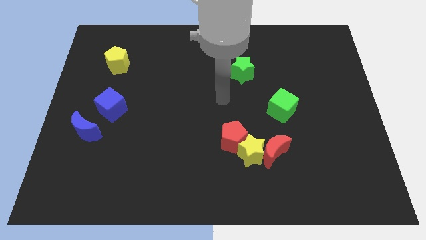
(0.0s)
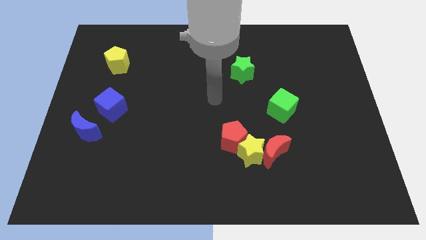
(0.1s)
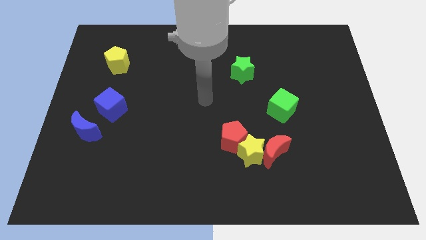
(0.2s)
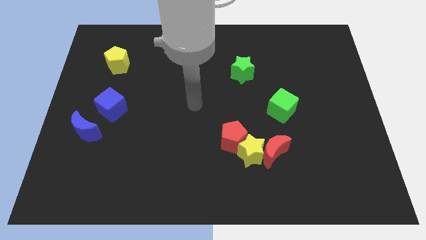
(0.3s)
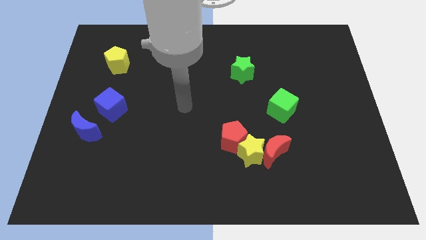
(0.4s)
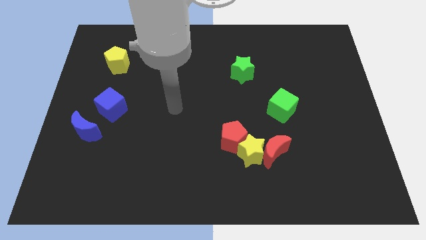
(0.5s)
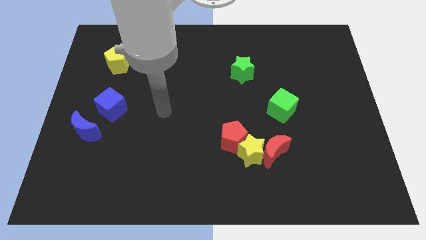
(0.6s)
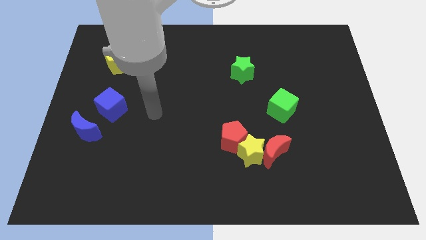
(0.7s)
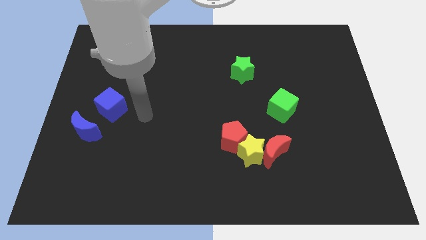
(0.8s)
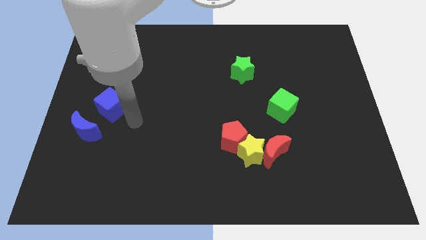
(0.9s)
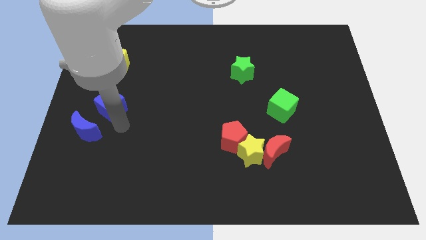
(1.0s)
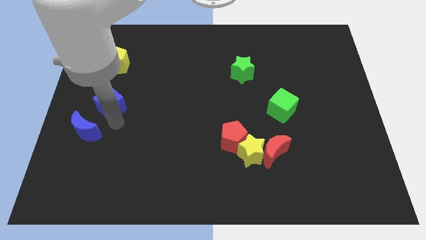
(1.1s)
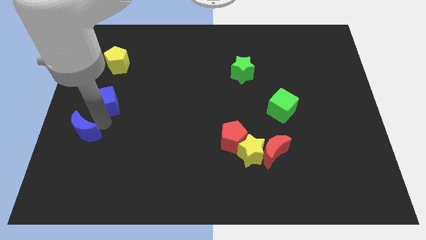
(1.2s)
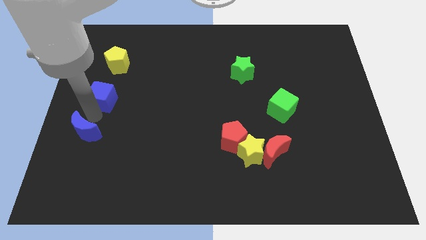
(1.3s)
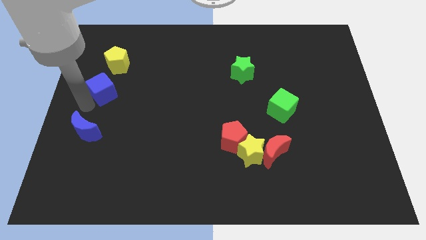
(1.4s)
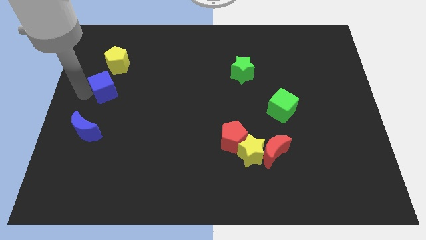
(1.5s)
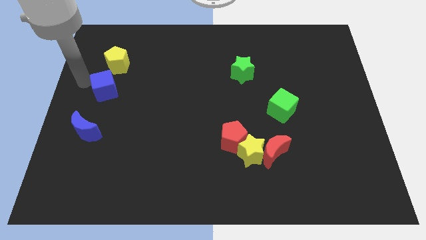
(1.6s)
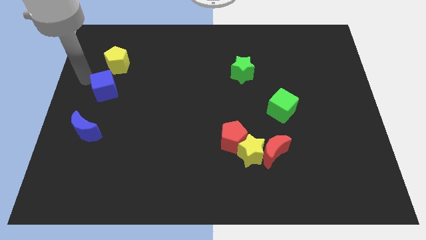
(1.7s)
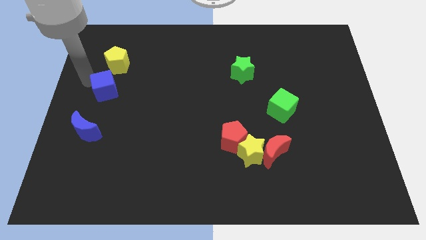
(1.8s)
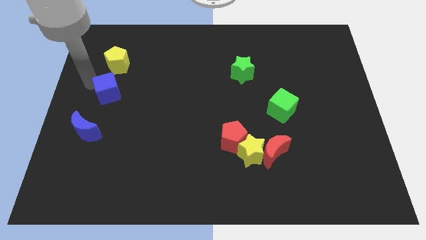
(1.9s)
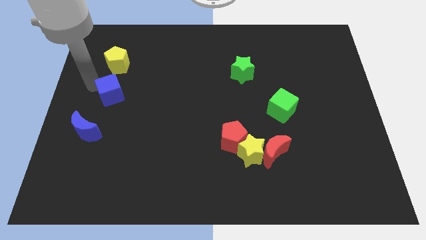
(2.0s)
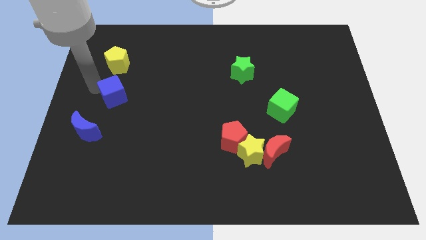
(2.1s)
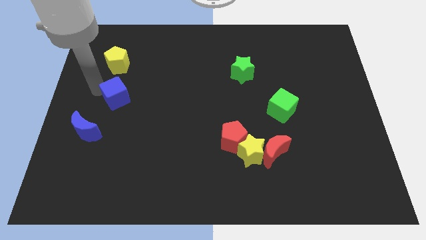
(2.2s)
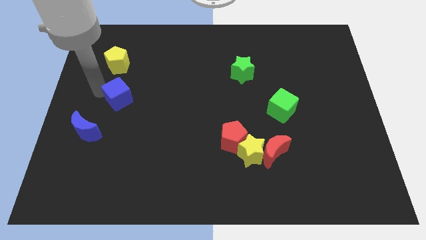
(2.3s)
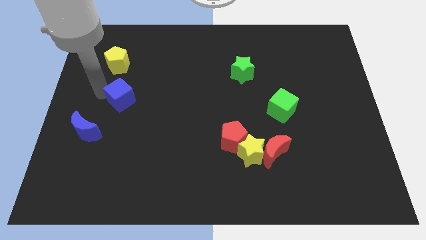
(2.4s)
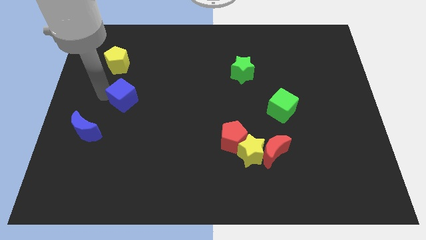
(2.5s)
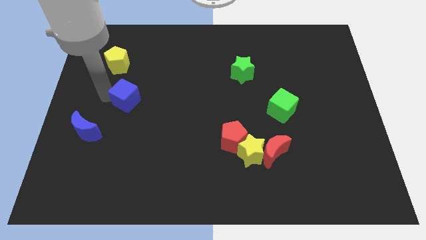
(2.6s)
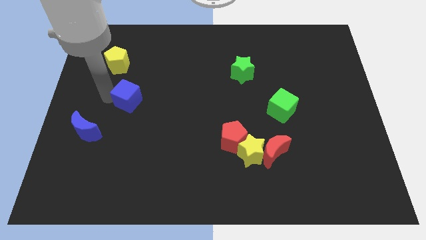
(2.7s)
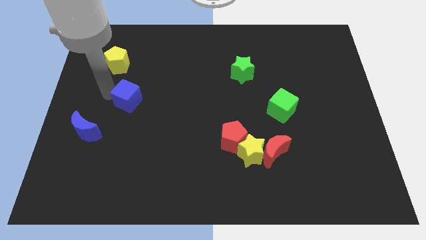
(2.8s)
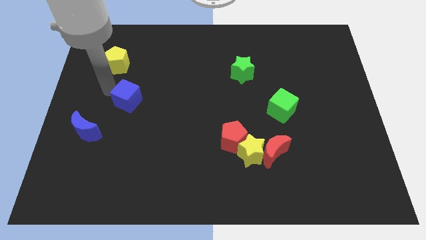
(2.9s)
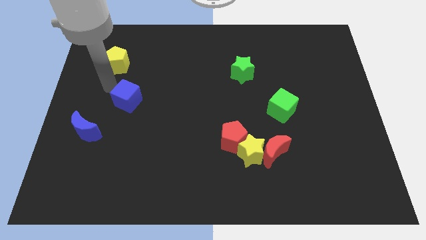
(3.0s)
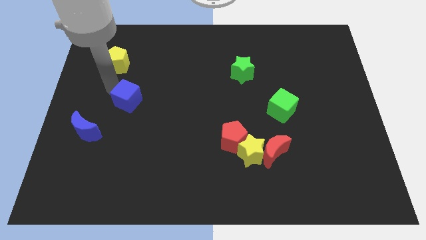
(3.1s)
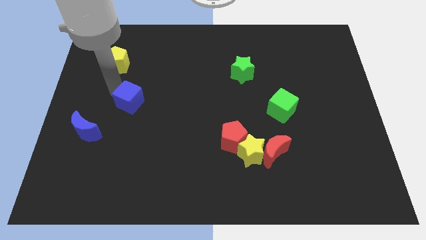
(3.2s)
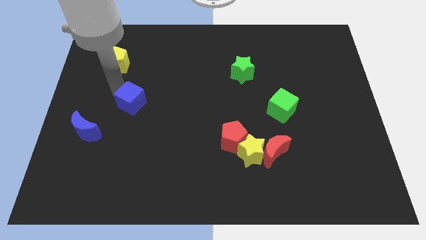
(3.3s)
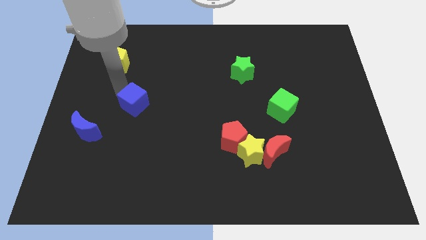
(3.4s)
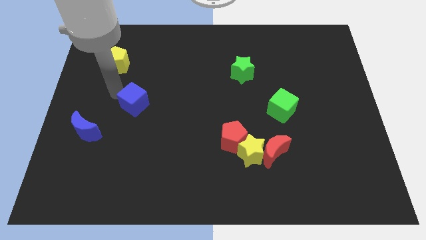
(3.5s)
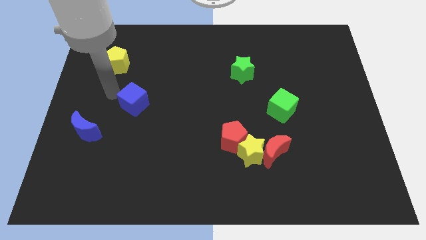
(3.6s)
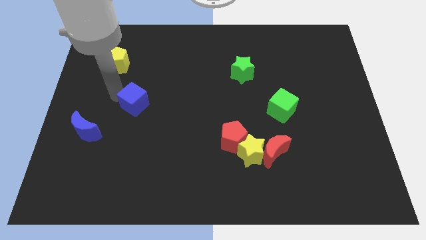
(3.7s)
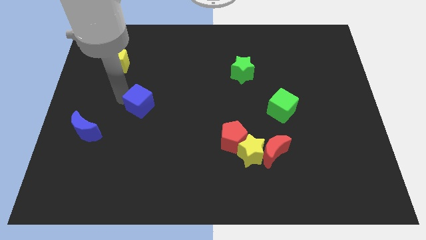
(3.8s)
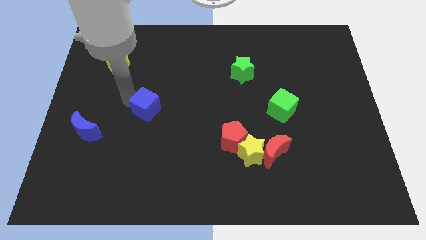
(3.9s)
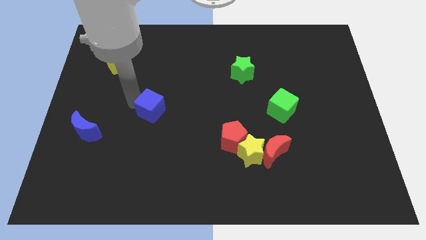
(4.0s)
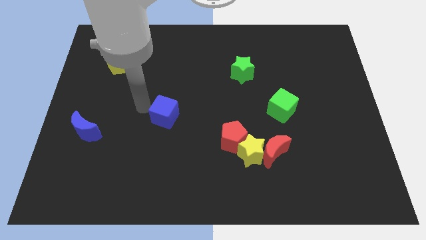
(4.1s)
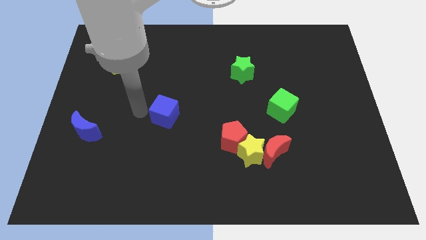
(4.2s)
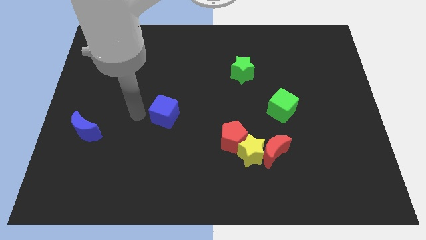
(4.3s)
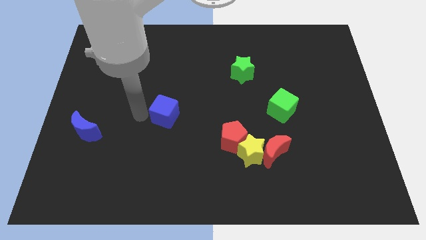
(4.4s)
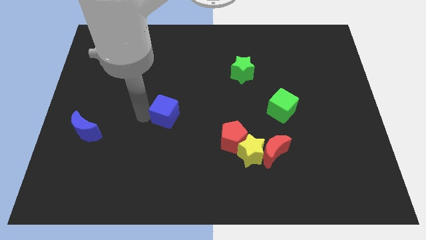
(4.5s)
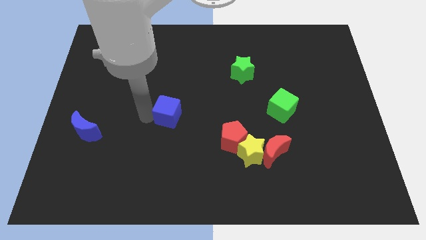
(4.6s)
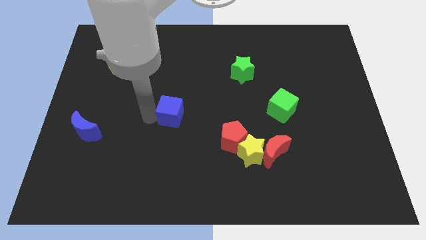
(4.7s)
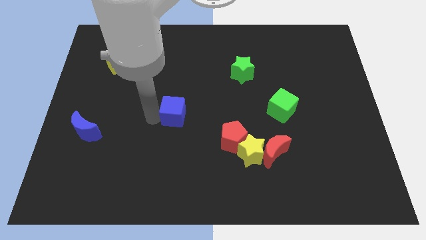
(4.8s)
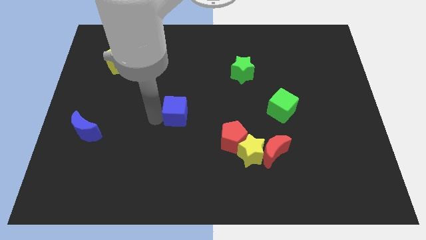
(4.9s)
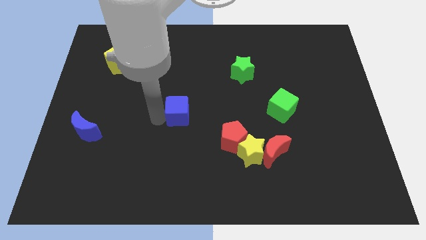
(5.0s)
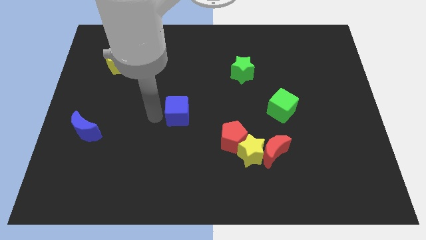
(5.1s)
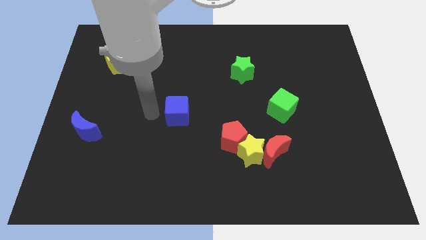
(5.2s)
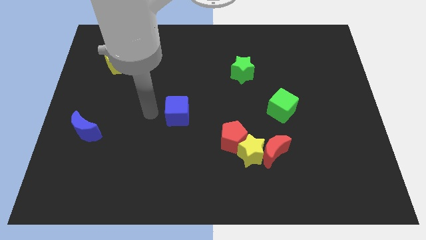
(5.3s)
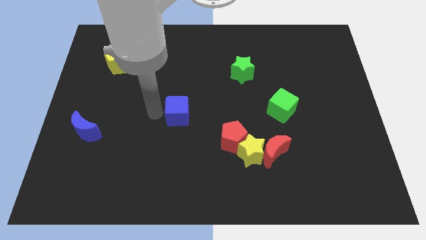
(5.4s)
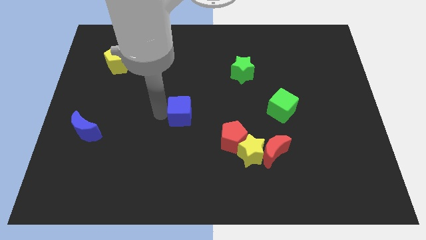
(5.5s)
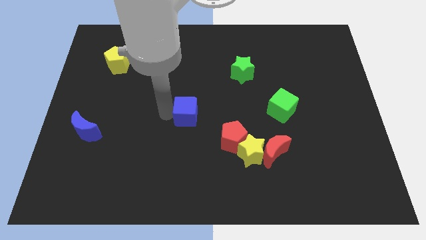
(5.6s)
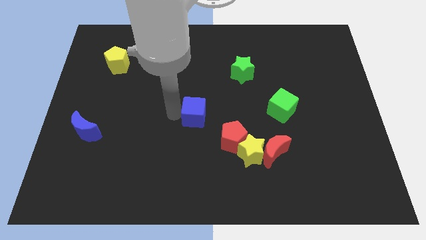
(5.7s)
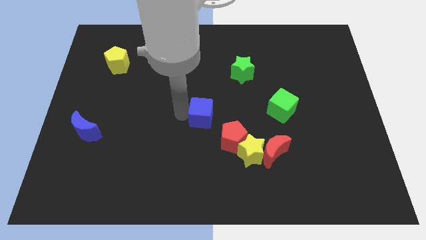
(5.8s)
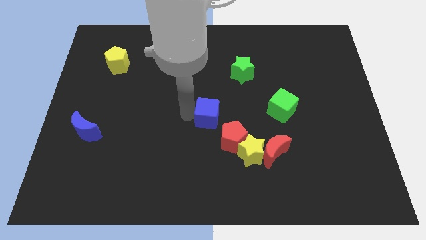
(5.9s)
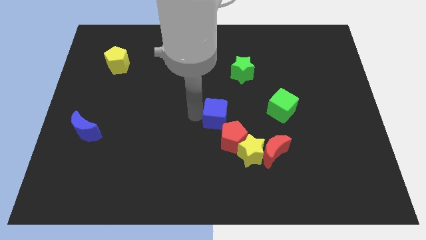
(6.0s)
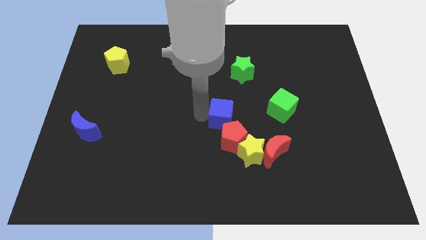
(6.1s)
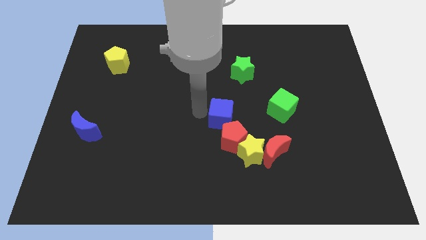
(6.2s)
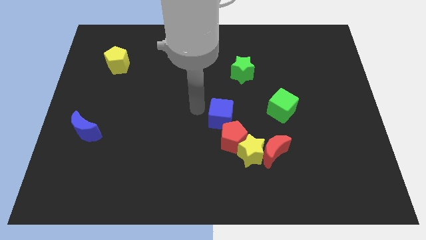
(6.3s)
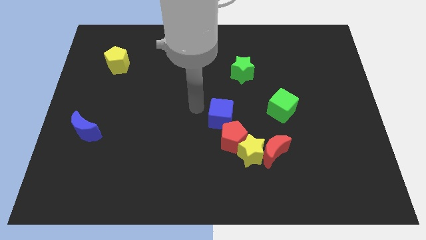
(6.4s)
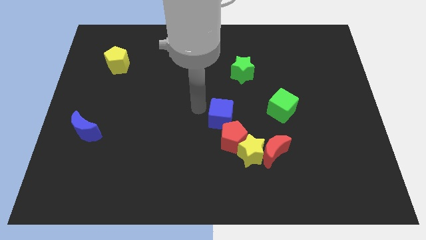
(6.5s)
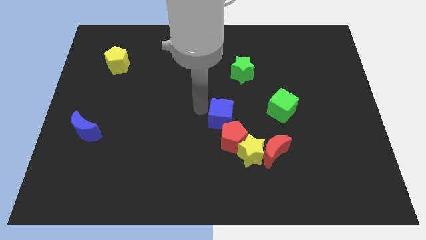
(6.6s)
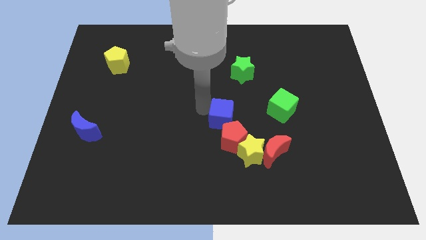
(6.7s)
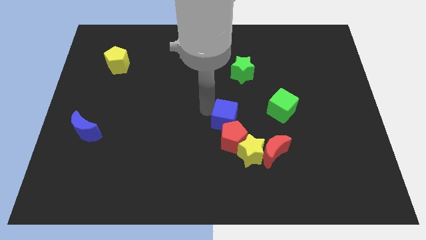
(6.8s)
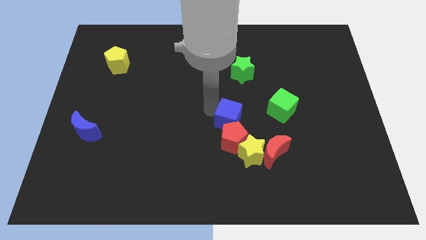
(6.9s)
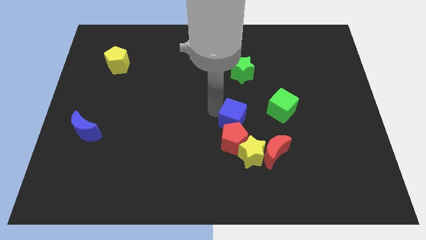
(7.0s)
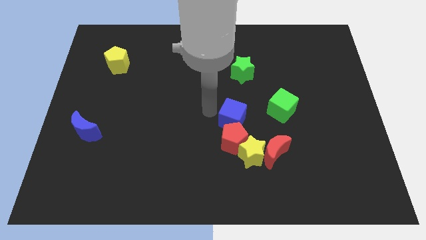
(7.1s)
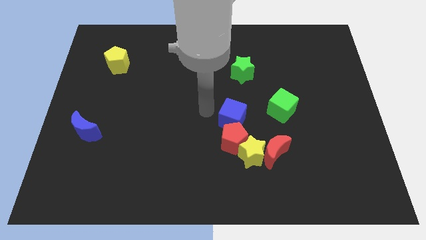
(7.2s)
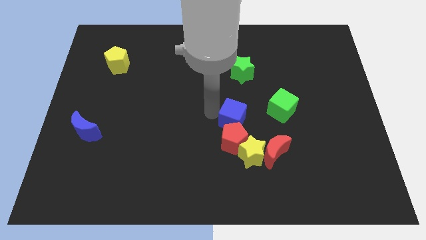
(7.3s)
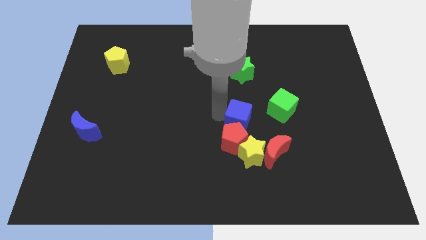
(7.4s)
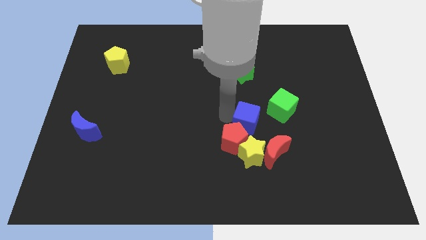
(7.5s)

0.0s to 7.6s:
push the blue cube to the bottom left of the green cube
